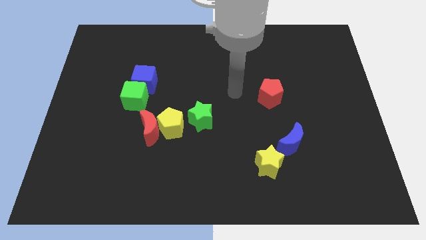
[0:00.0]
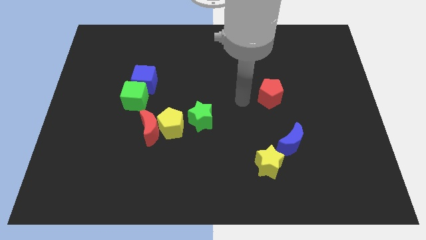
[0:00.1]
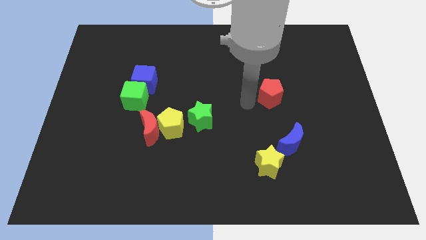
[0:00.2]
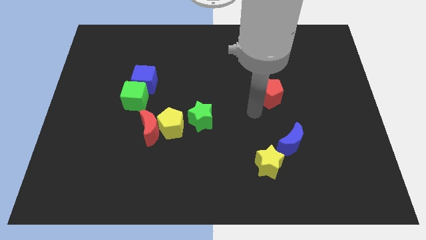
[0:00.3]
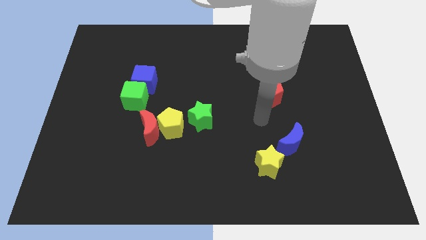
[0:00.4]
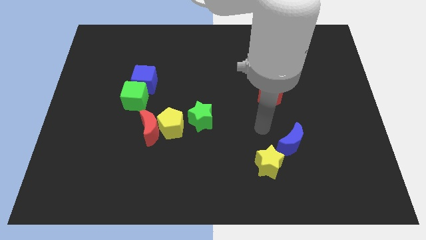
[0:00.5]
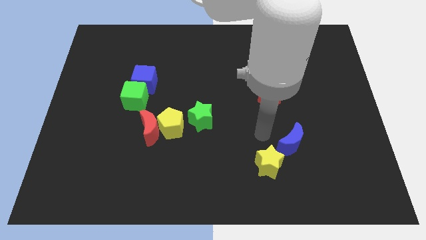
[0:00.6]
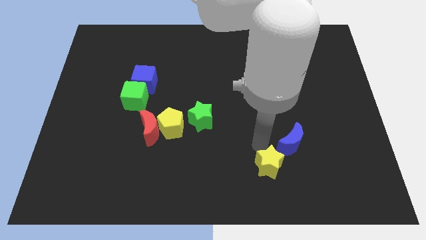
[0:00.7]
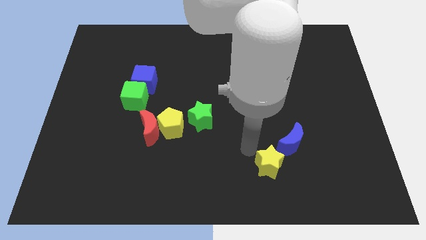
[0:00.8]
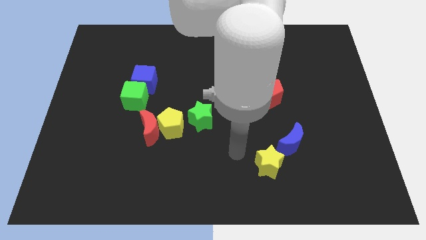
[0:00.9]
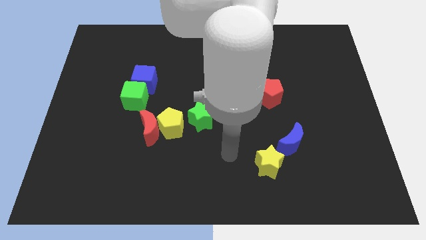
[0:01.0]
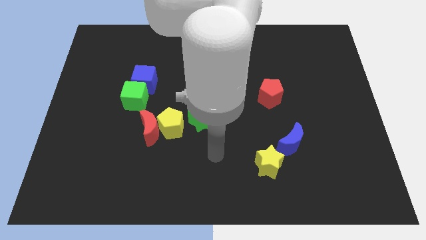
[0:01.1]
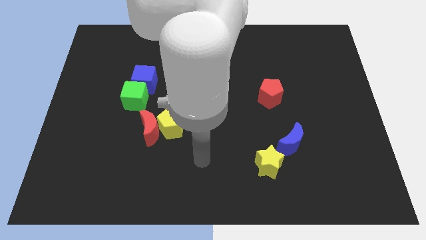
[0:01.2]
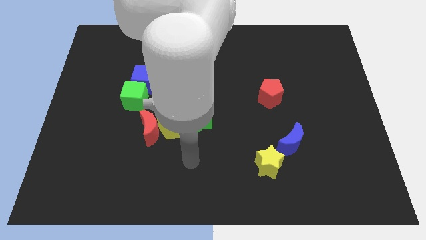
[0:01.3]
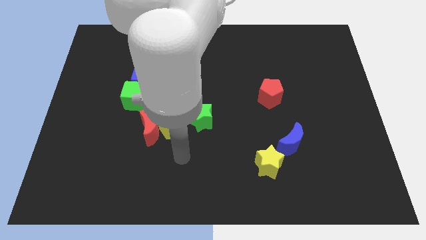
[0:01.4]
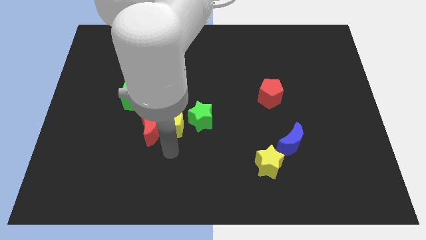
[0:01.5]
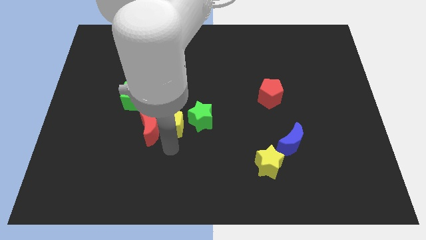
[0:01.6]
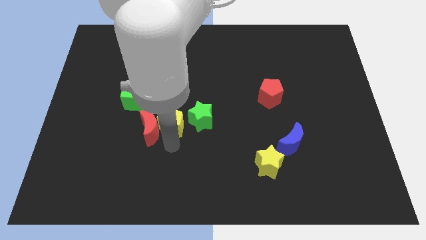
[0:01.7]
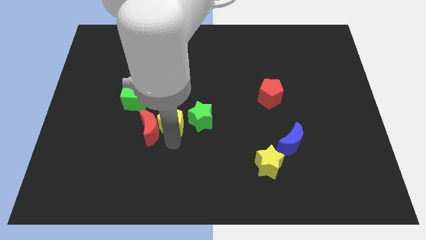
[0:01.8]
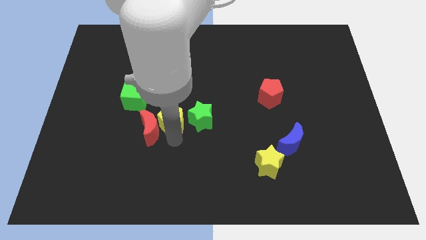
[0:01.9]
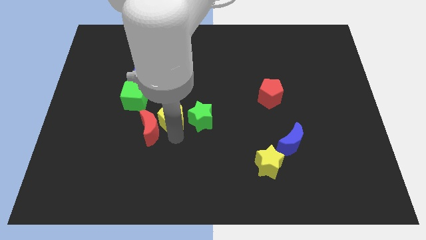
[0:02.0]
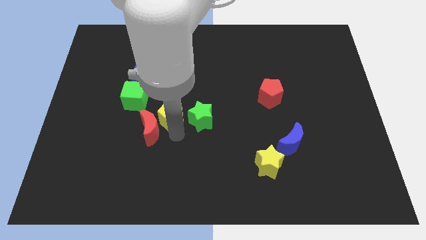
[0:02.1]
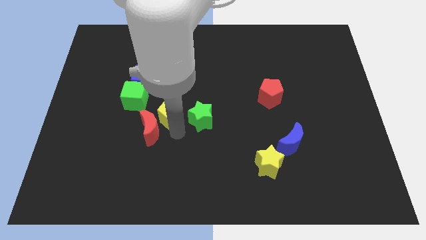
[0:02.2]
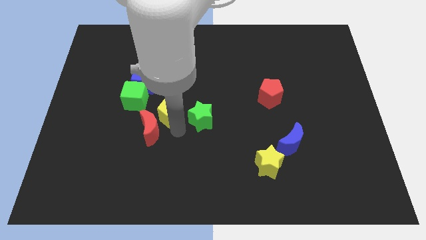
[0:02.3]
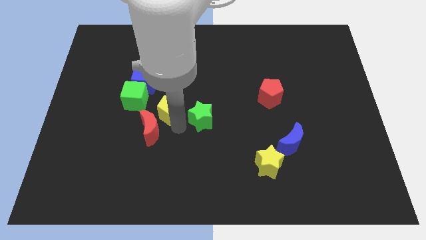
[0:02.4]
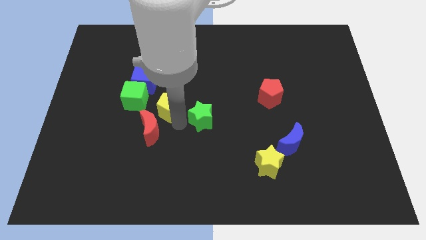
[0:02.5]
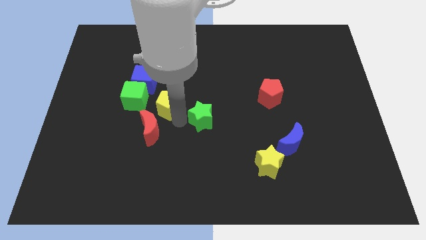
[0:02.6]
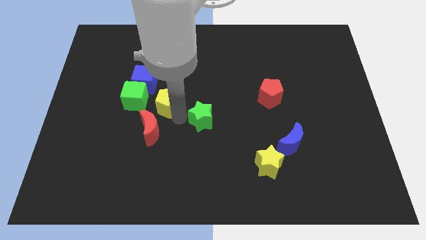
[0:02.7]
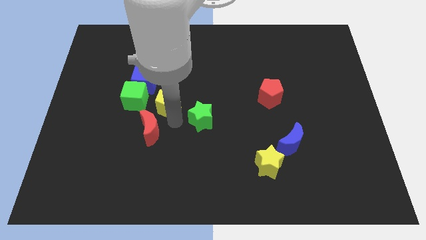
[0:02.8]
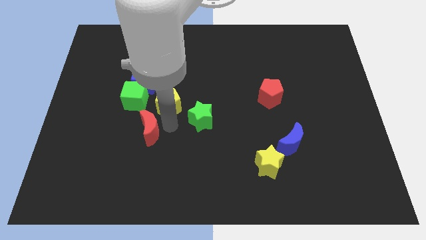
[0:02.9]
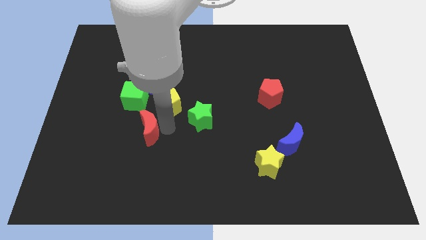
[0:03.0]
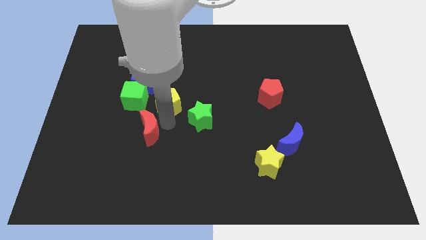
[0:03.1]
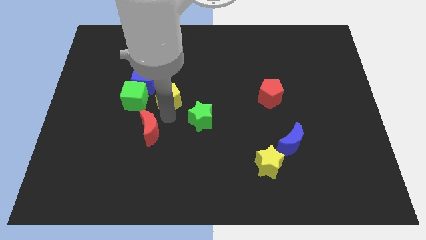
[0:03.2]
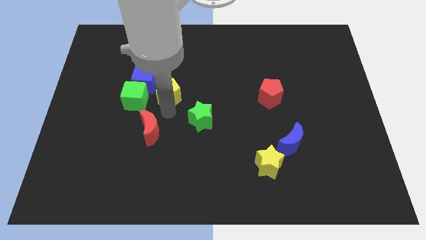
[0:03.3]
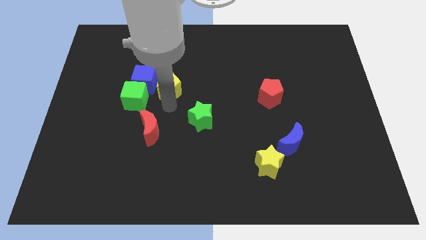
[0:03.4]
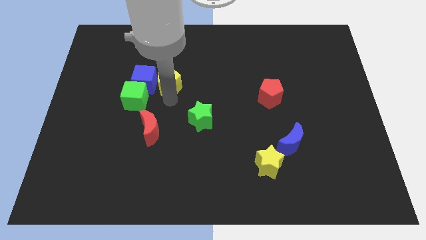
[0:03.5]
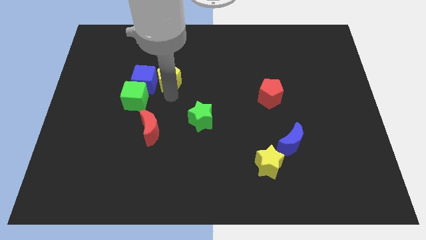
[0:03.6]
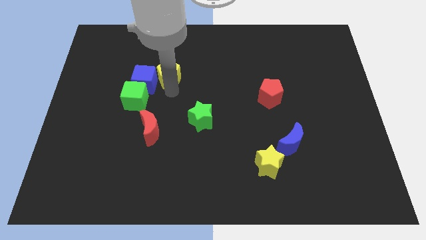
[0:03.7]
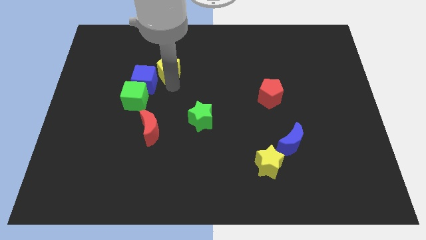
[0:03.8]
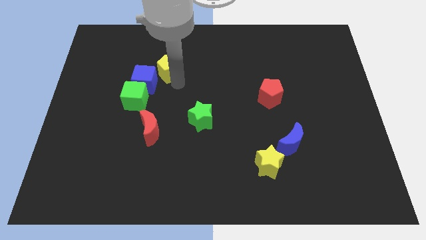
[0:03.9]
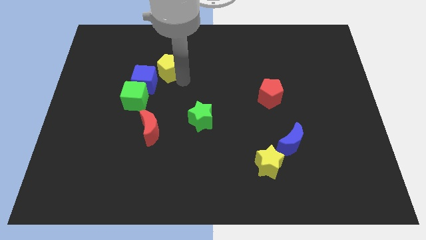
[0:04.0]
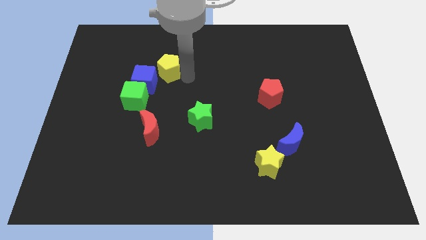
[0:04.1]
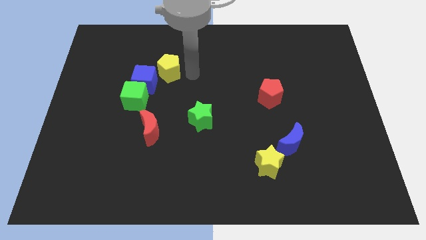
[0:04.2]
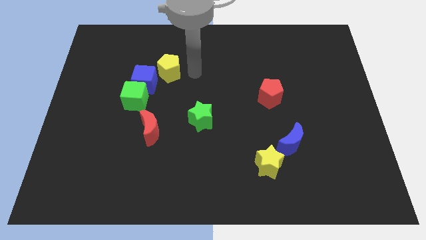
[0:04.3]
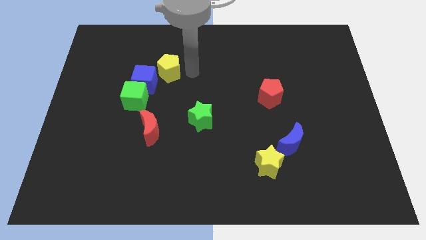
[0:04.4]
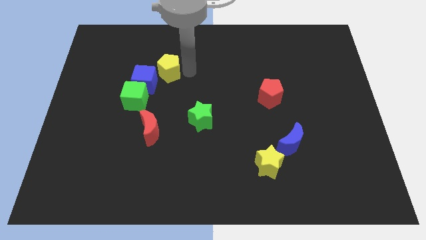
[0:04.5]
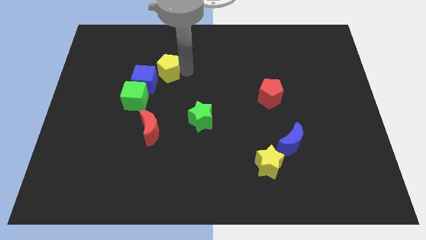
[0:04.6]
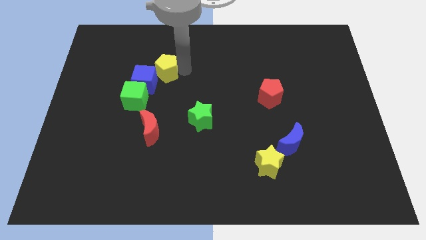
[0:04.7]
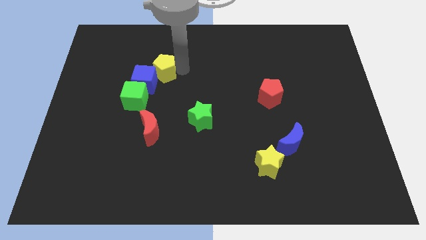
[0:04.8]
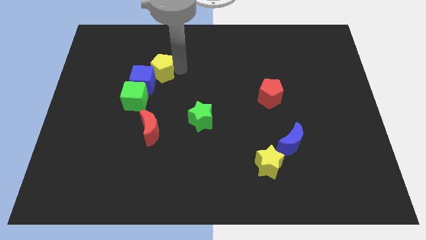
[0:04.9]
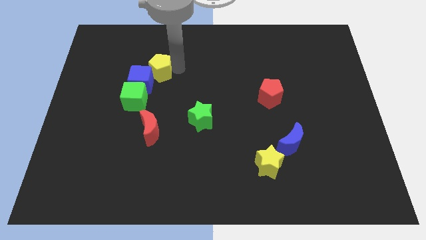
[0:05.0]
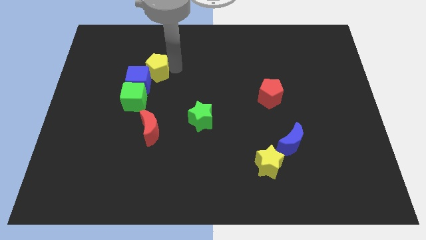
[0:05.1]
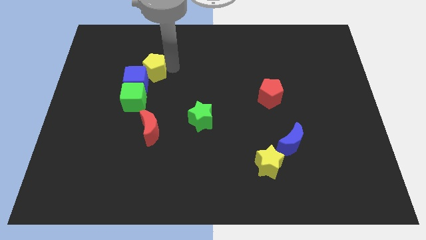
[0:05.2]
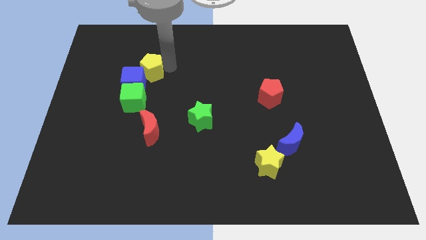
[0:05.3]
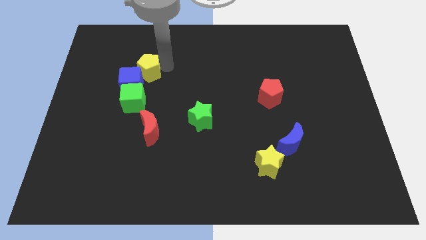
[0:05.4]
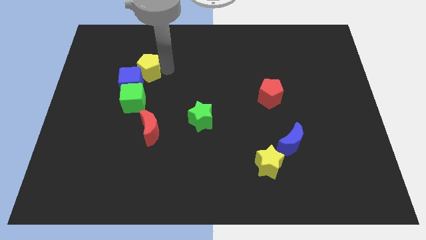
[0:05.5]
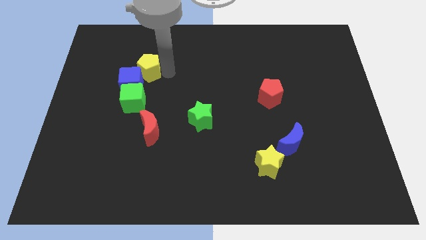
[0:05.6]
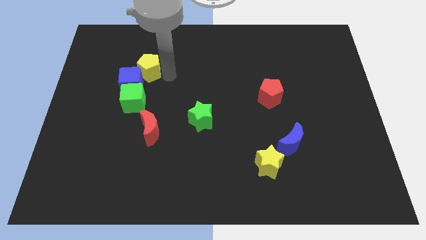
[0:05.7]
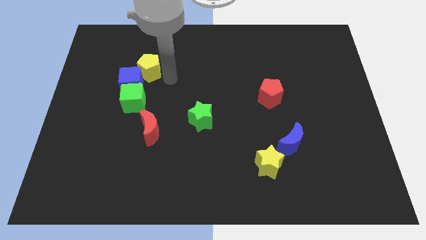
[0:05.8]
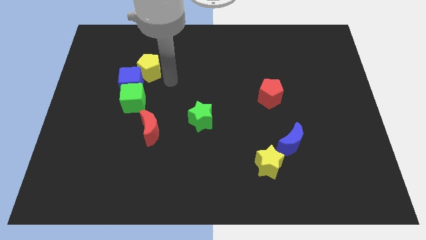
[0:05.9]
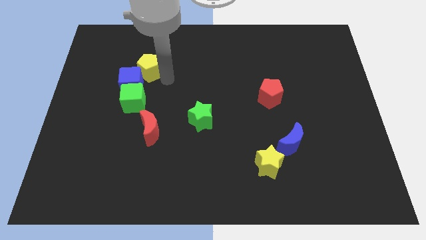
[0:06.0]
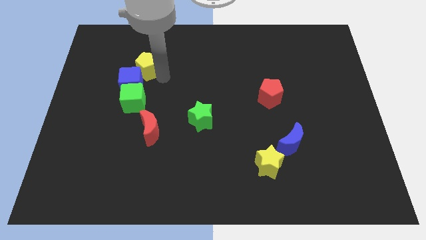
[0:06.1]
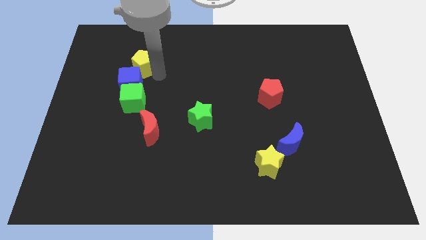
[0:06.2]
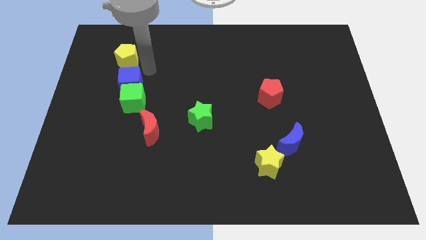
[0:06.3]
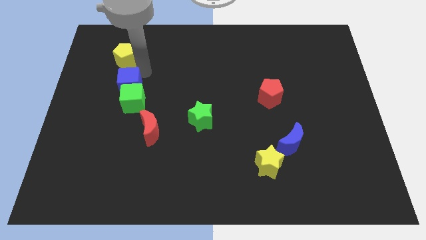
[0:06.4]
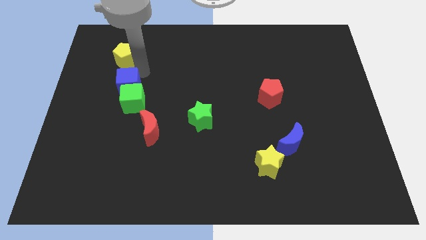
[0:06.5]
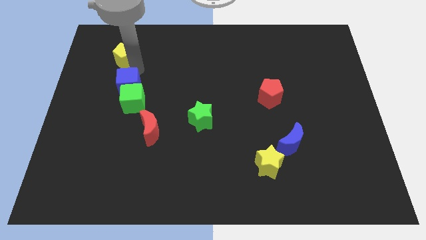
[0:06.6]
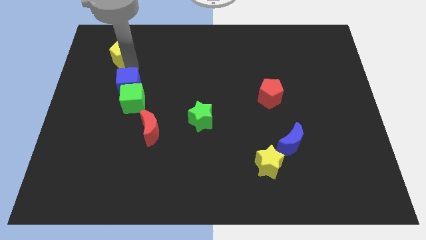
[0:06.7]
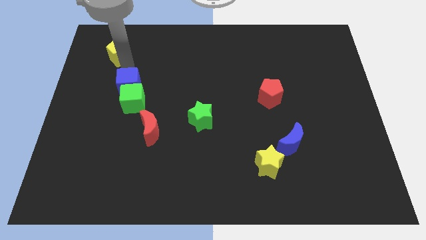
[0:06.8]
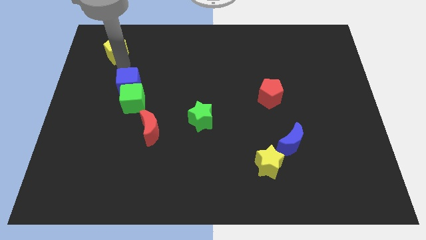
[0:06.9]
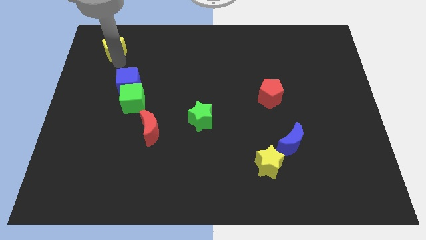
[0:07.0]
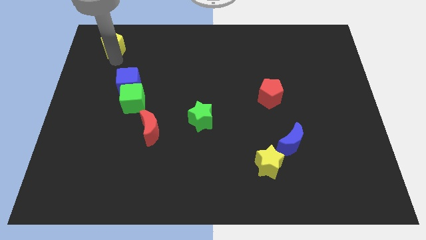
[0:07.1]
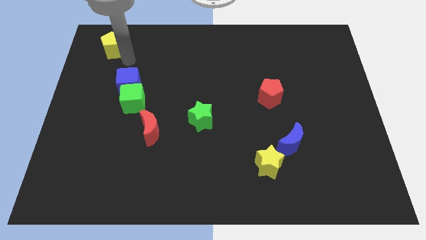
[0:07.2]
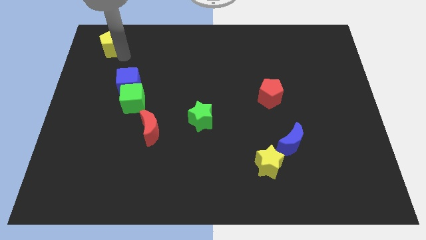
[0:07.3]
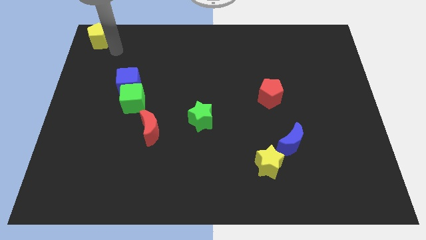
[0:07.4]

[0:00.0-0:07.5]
put the yellow pentagon to the top left
